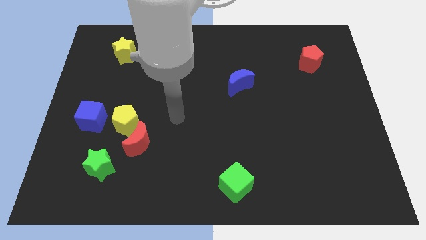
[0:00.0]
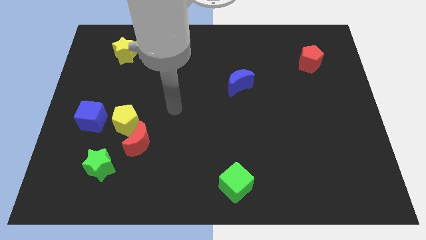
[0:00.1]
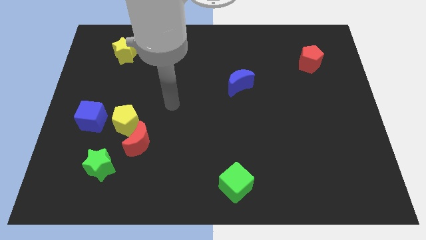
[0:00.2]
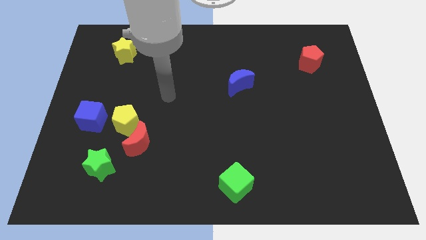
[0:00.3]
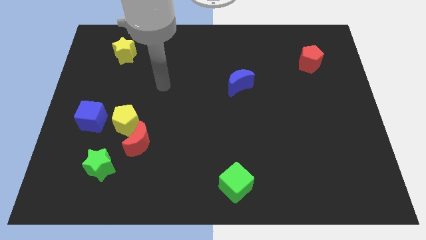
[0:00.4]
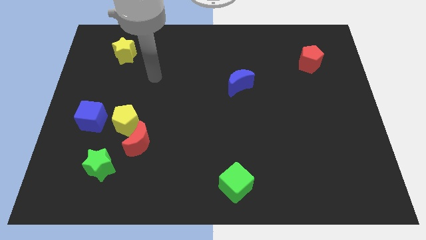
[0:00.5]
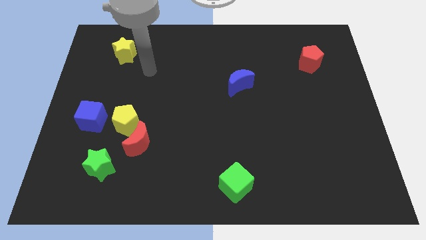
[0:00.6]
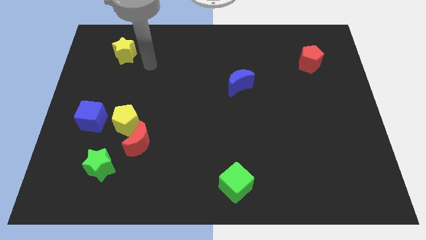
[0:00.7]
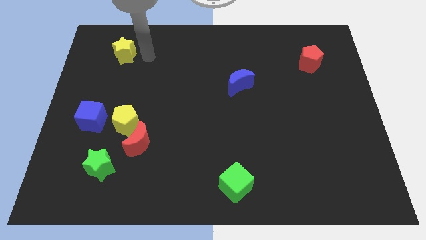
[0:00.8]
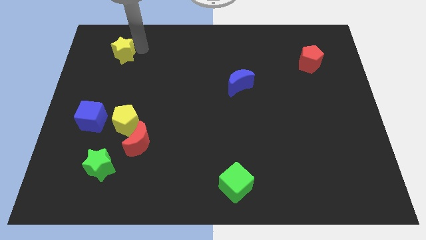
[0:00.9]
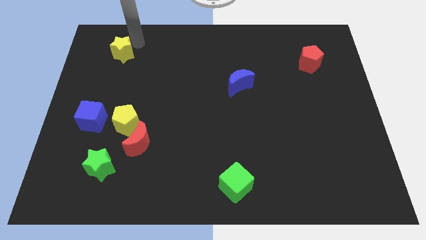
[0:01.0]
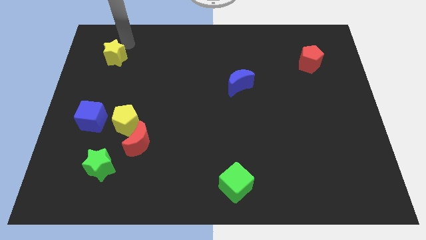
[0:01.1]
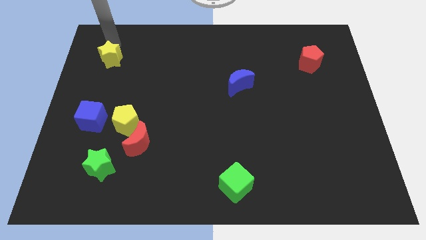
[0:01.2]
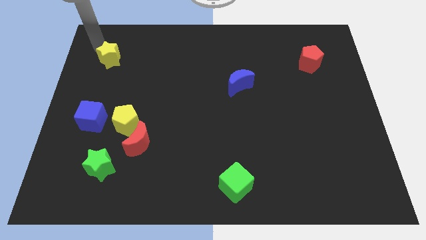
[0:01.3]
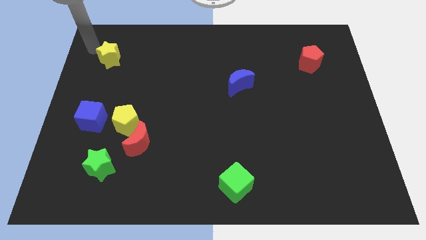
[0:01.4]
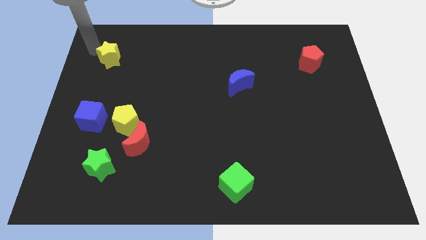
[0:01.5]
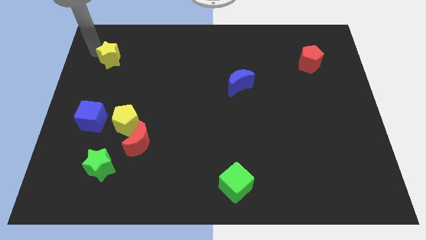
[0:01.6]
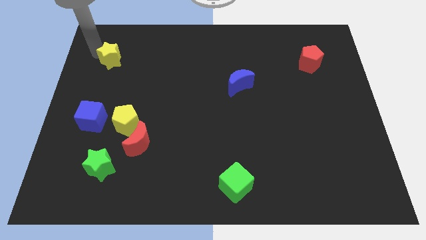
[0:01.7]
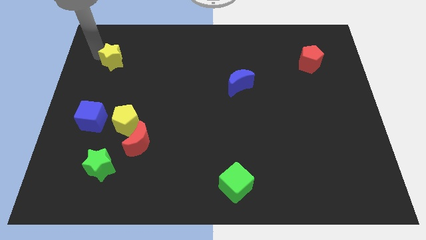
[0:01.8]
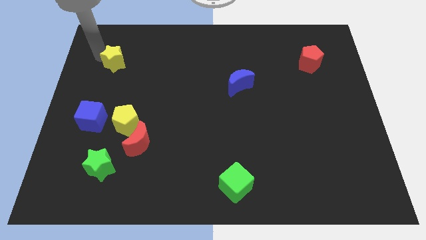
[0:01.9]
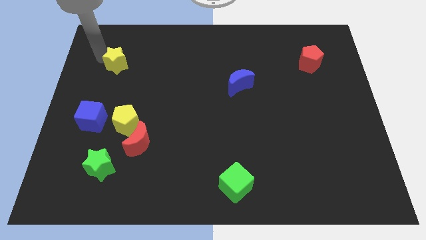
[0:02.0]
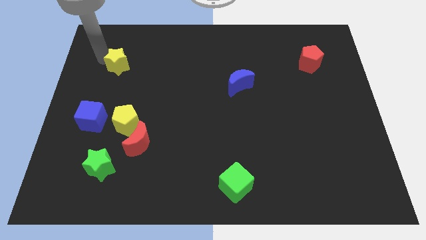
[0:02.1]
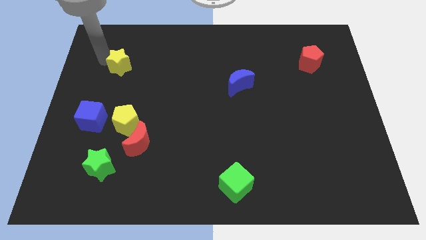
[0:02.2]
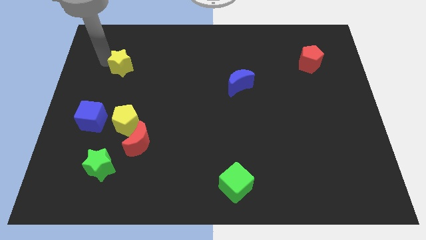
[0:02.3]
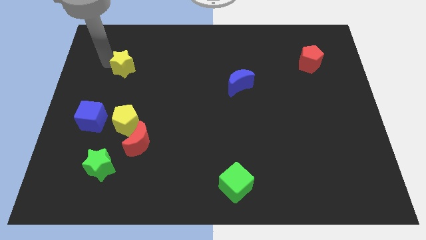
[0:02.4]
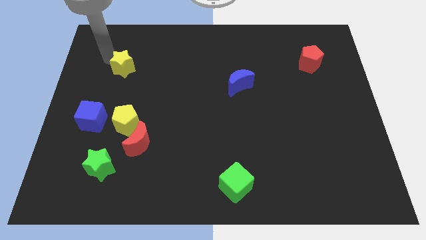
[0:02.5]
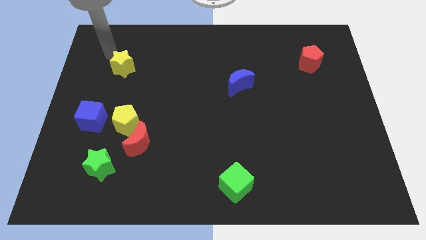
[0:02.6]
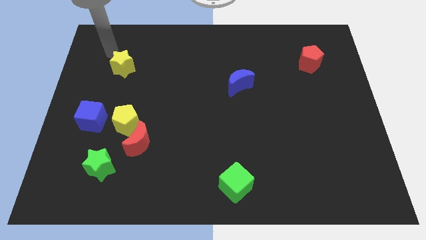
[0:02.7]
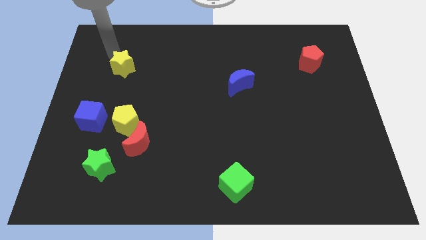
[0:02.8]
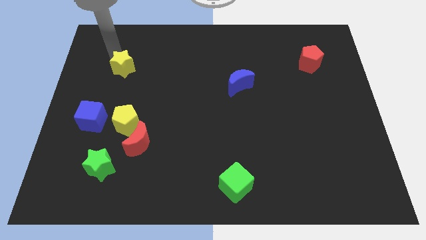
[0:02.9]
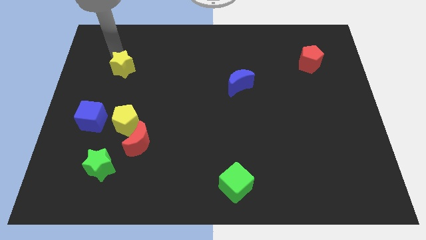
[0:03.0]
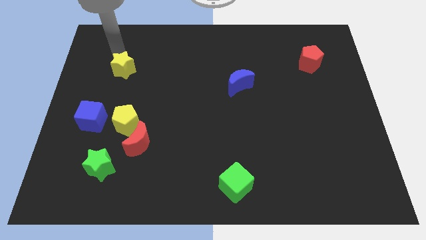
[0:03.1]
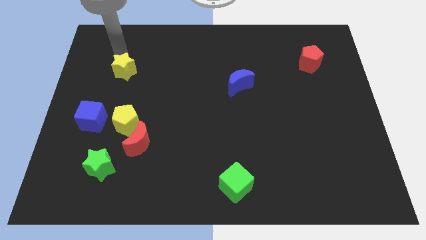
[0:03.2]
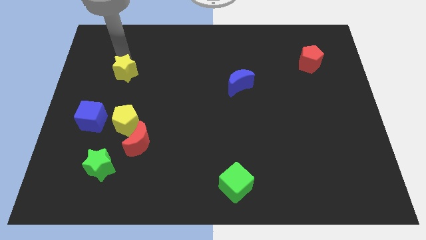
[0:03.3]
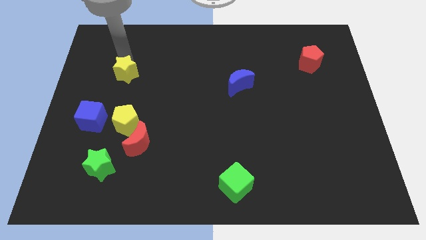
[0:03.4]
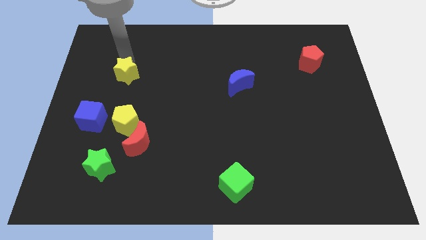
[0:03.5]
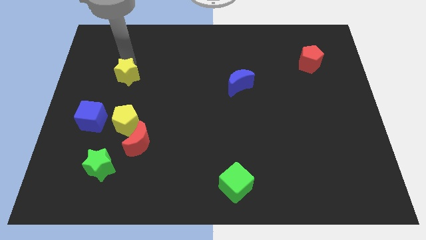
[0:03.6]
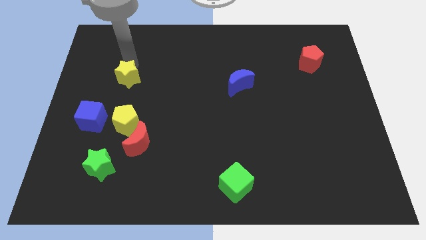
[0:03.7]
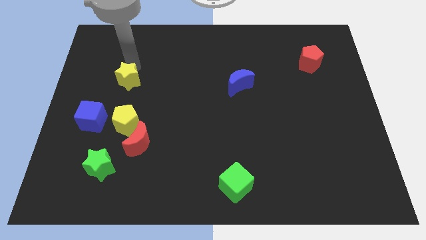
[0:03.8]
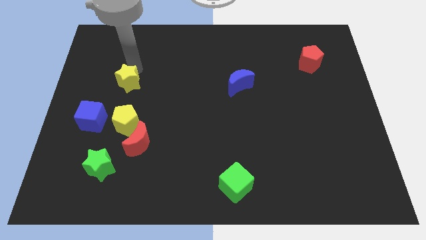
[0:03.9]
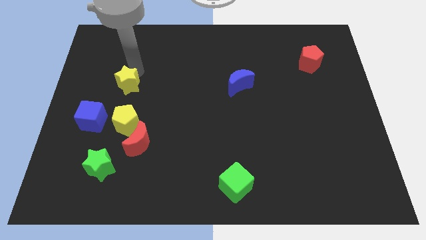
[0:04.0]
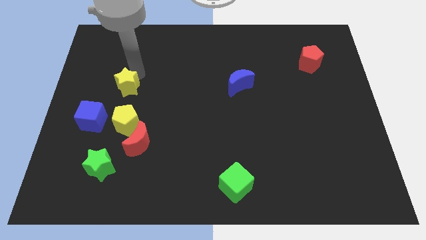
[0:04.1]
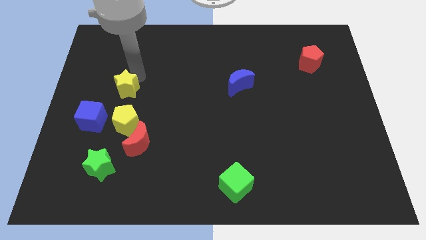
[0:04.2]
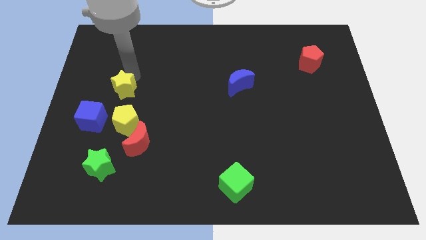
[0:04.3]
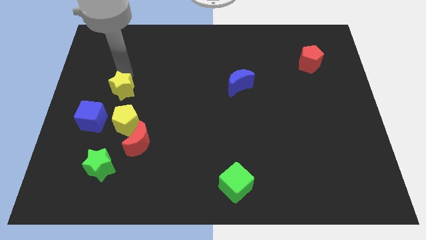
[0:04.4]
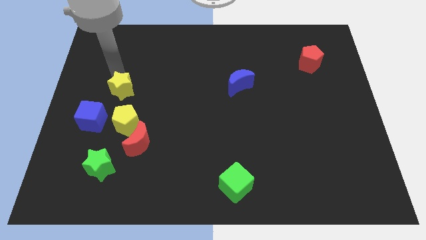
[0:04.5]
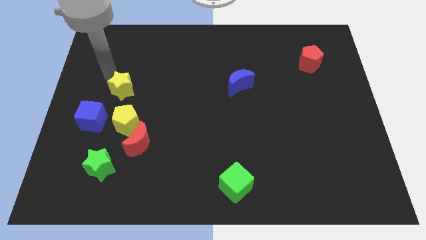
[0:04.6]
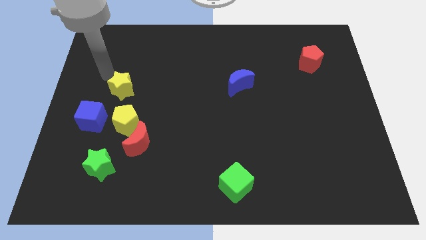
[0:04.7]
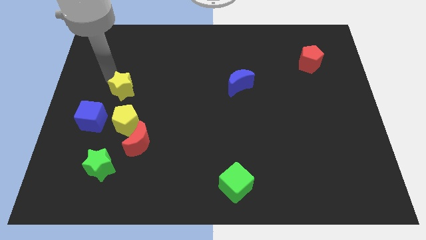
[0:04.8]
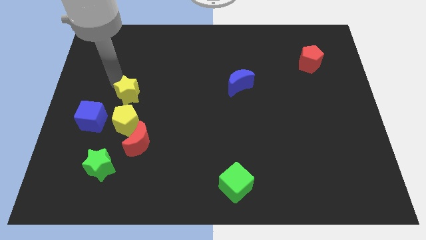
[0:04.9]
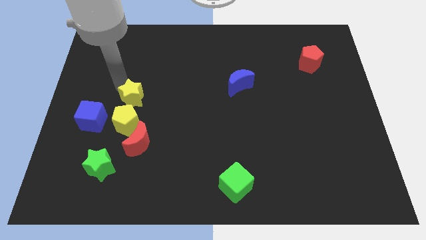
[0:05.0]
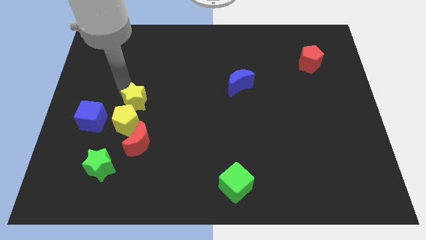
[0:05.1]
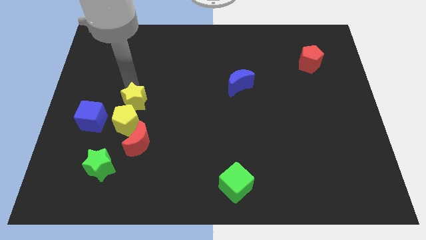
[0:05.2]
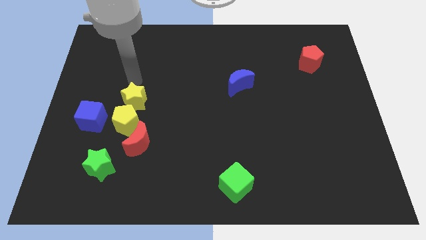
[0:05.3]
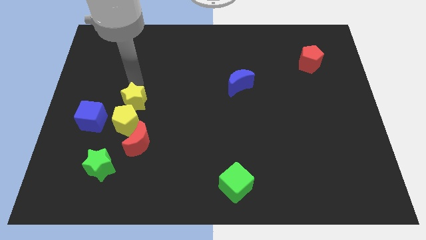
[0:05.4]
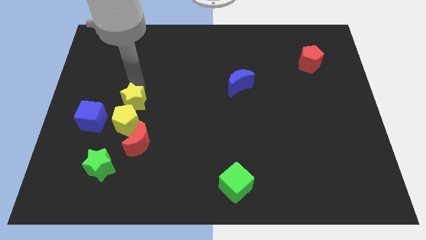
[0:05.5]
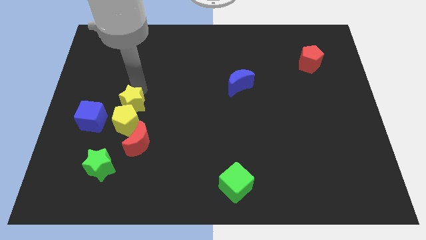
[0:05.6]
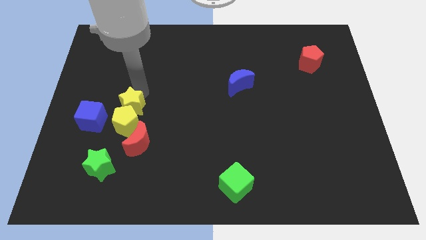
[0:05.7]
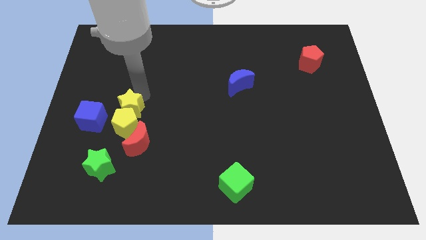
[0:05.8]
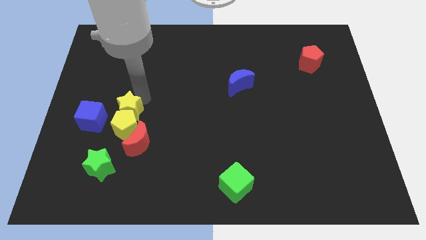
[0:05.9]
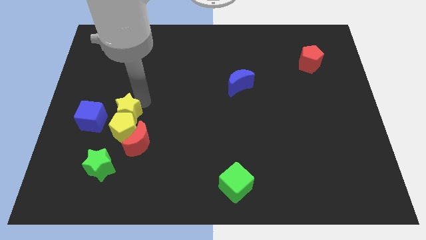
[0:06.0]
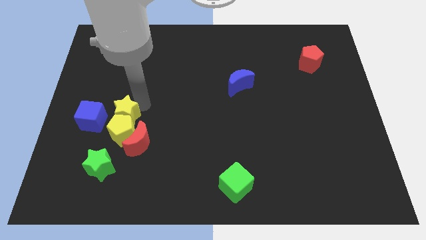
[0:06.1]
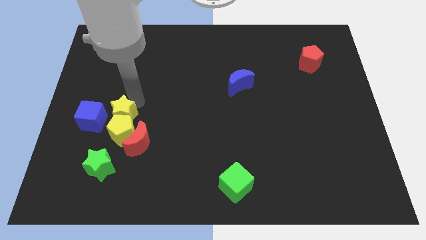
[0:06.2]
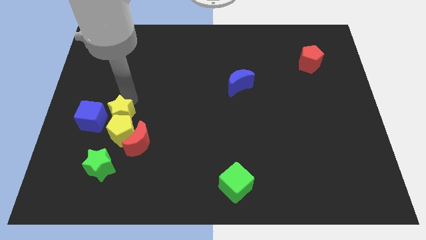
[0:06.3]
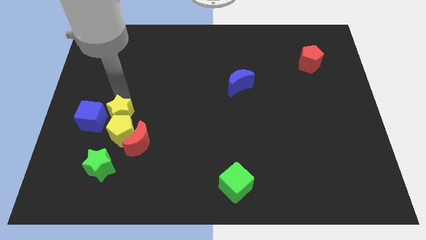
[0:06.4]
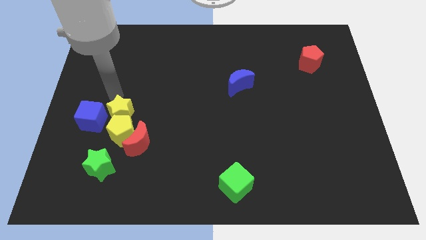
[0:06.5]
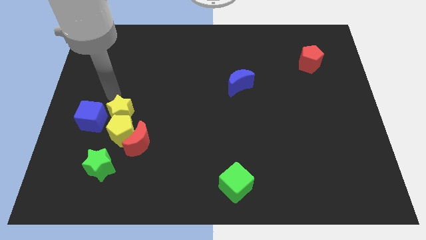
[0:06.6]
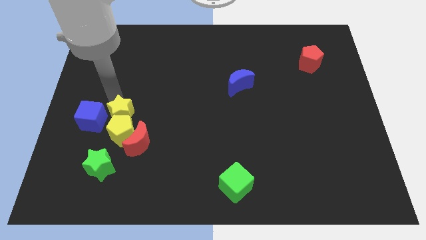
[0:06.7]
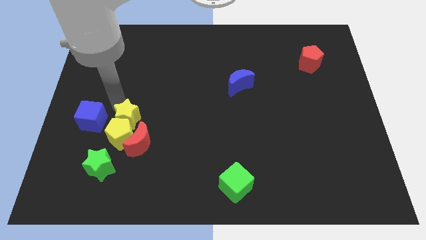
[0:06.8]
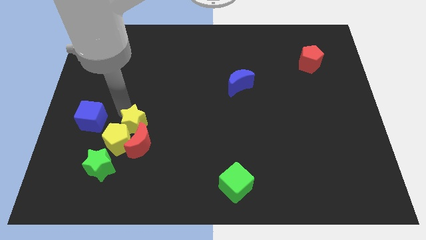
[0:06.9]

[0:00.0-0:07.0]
put the yellow star towards the red moon

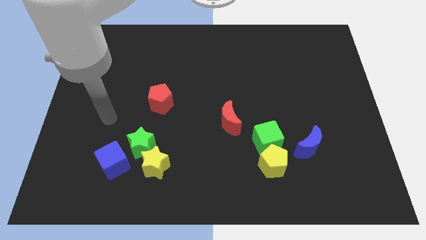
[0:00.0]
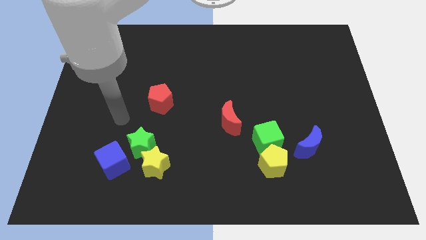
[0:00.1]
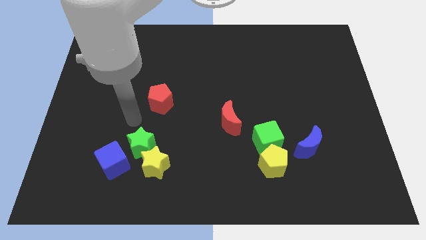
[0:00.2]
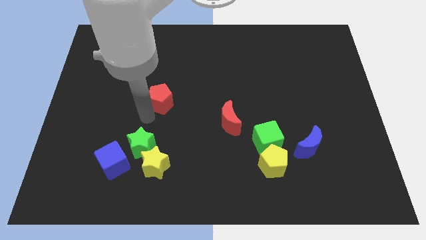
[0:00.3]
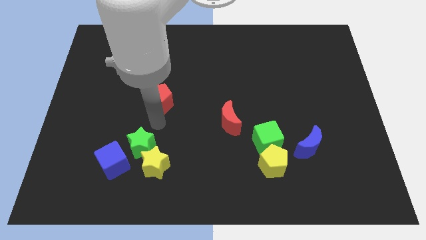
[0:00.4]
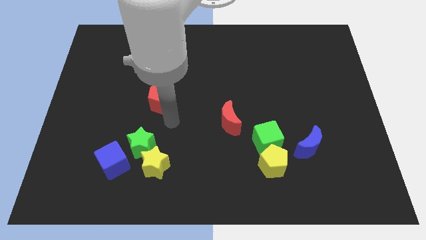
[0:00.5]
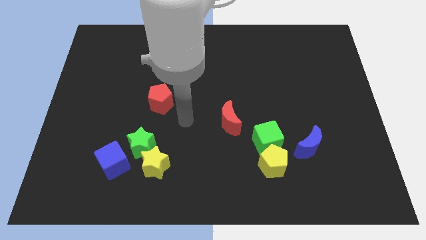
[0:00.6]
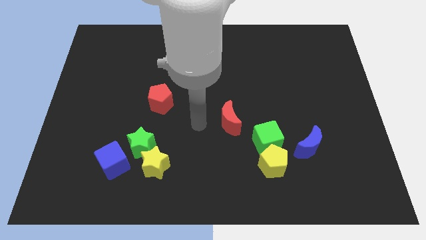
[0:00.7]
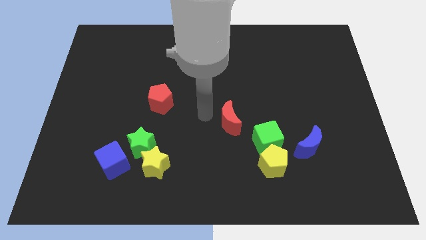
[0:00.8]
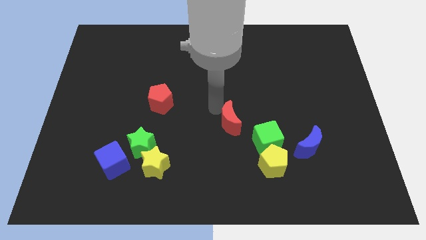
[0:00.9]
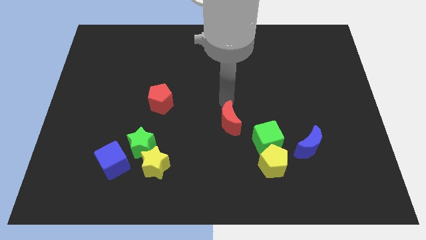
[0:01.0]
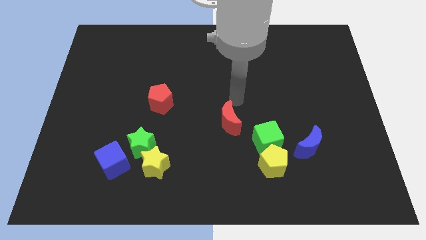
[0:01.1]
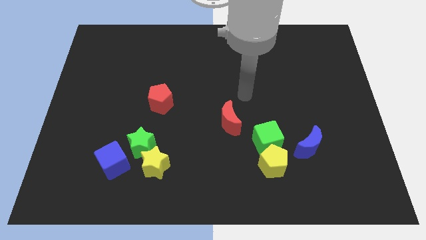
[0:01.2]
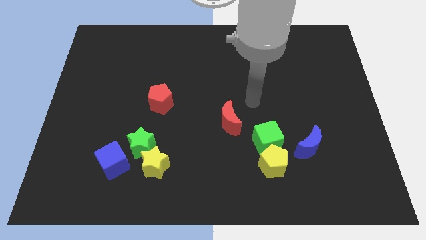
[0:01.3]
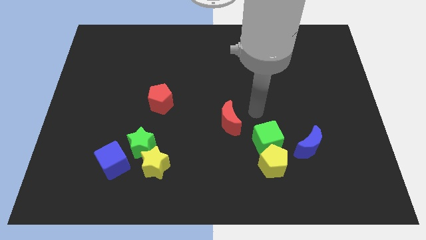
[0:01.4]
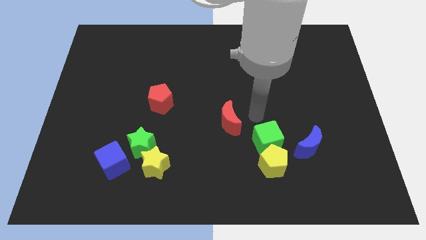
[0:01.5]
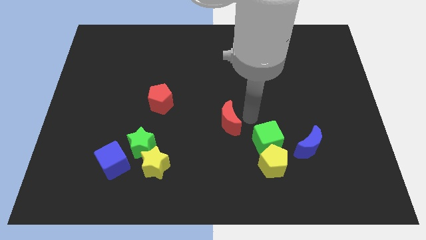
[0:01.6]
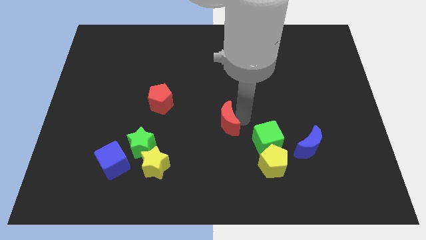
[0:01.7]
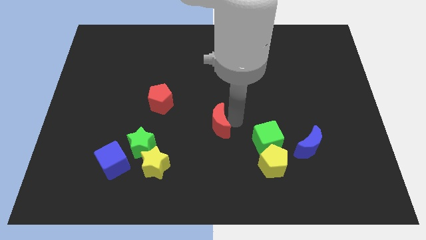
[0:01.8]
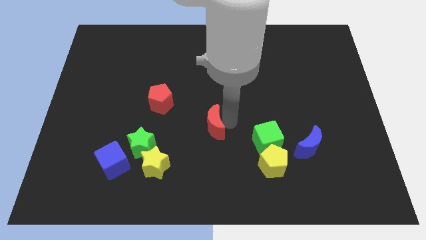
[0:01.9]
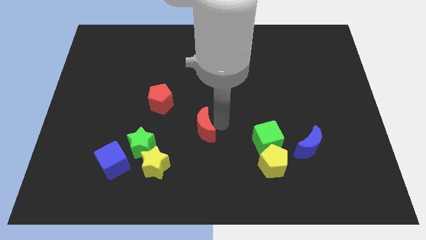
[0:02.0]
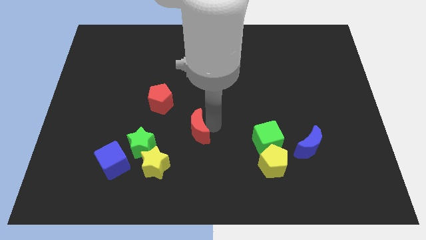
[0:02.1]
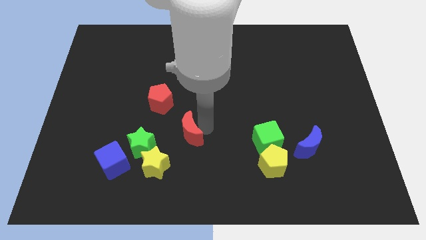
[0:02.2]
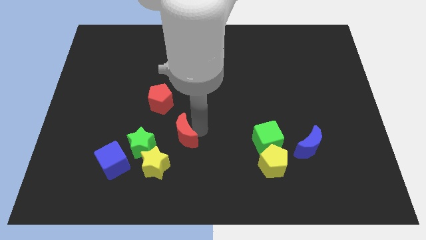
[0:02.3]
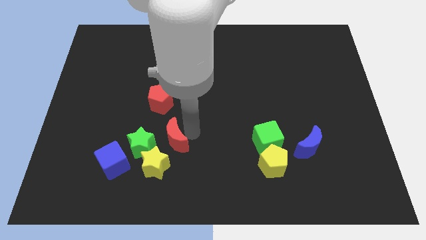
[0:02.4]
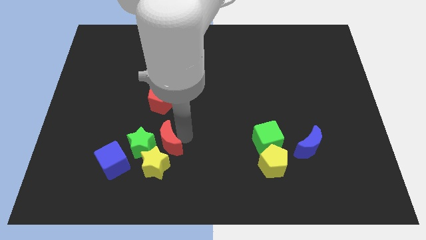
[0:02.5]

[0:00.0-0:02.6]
move the red moon towards the green star
